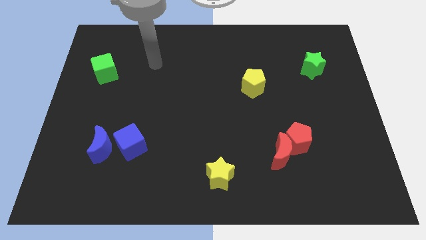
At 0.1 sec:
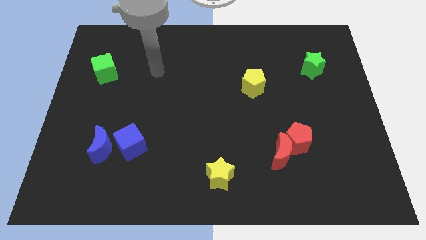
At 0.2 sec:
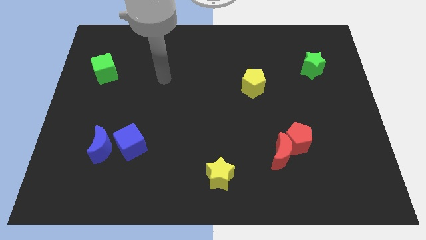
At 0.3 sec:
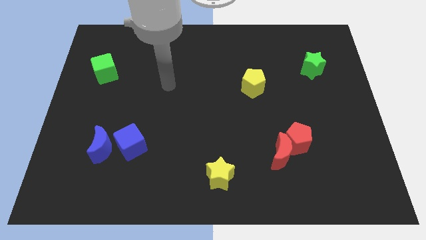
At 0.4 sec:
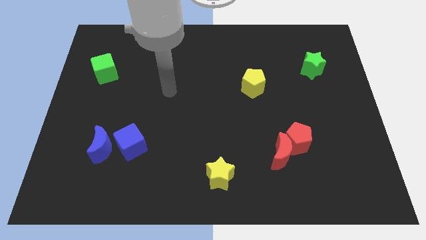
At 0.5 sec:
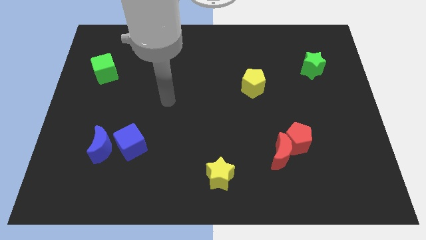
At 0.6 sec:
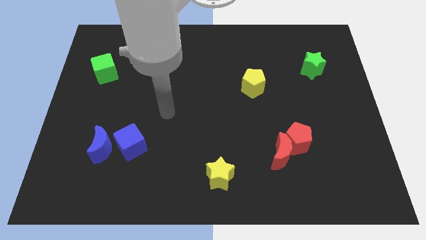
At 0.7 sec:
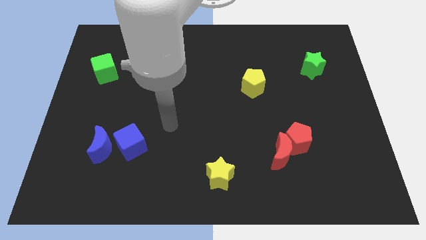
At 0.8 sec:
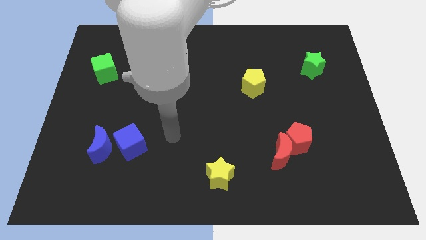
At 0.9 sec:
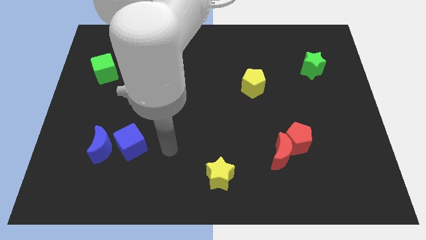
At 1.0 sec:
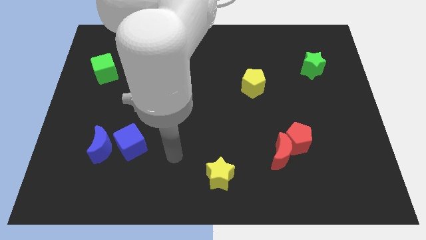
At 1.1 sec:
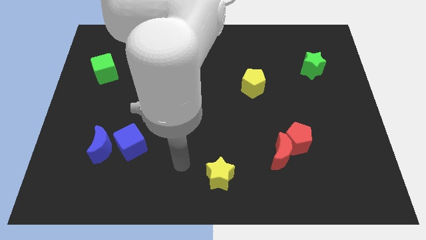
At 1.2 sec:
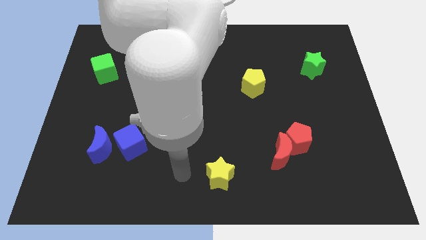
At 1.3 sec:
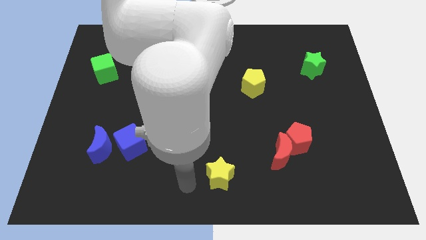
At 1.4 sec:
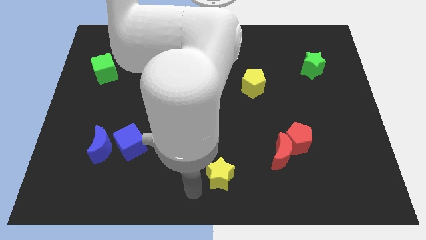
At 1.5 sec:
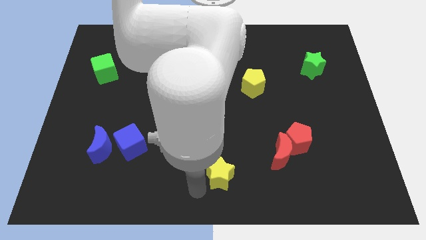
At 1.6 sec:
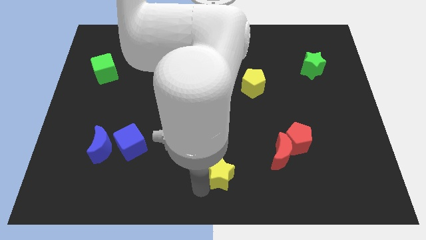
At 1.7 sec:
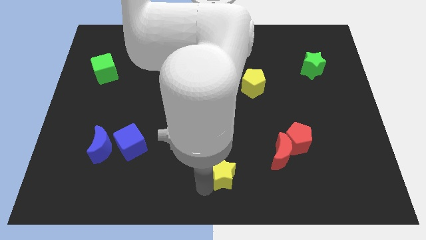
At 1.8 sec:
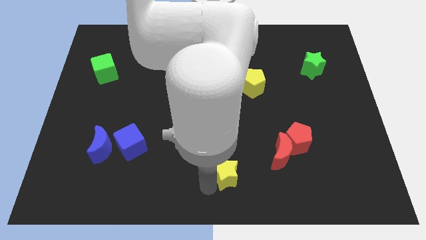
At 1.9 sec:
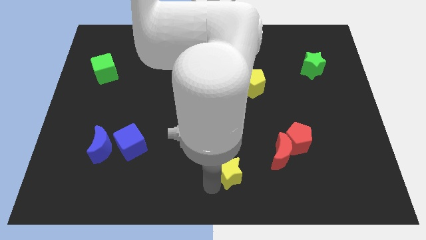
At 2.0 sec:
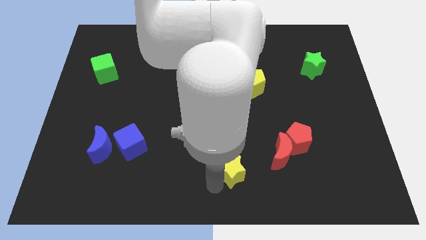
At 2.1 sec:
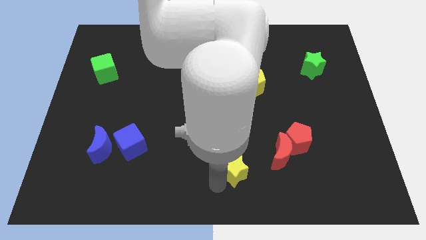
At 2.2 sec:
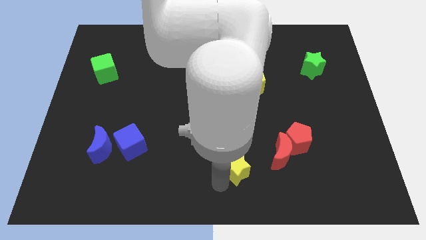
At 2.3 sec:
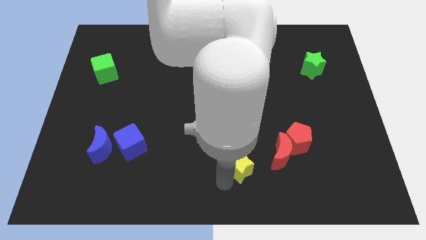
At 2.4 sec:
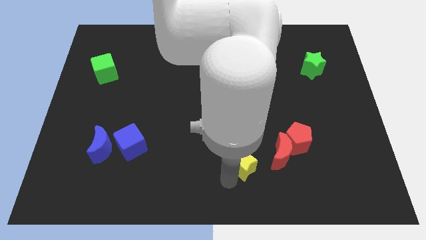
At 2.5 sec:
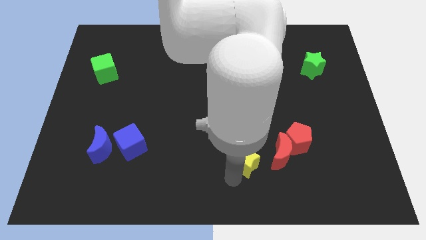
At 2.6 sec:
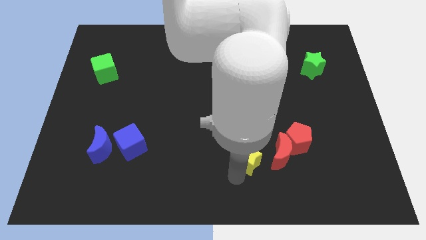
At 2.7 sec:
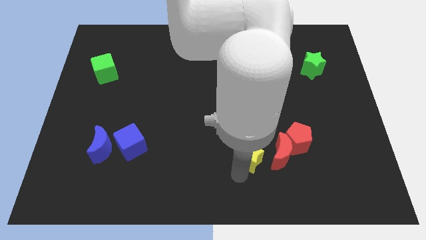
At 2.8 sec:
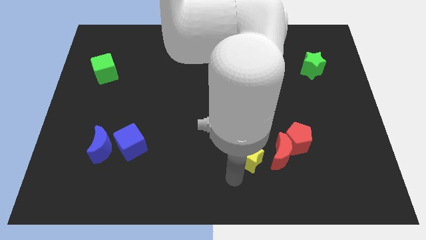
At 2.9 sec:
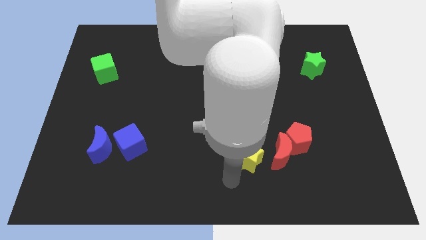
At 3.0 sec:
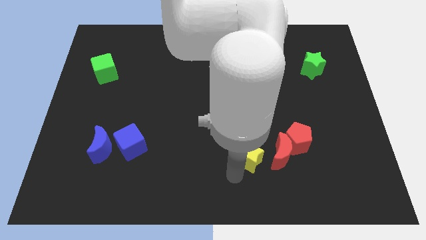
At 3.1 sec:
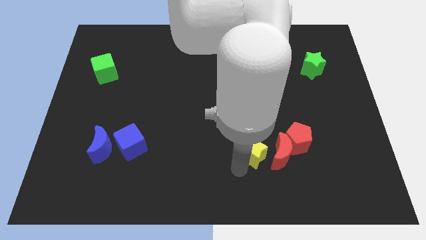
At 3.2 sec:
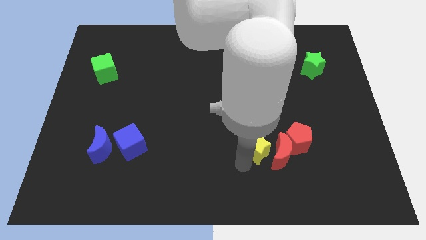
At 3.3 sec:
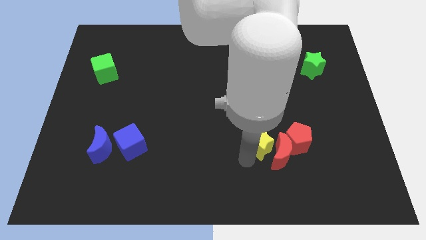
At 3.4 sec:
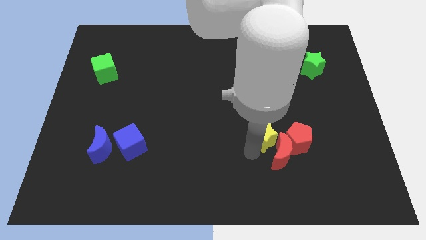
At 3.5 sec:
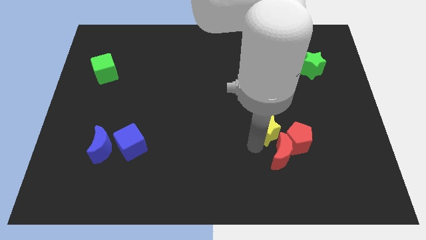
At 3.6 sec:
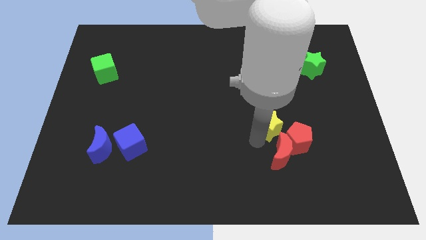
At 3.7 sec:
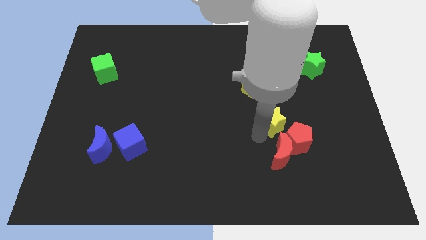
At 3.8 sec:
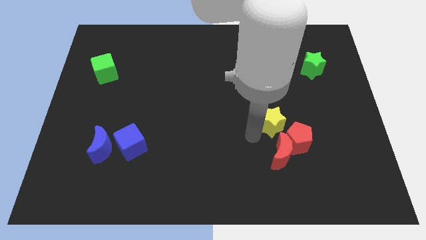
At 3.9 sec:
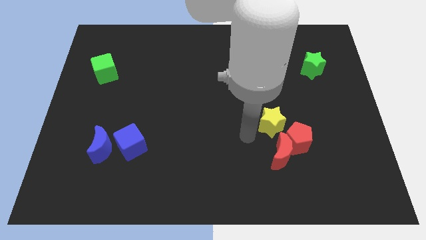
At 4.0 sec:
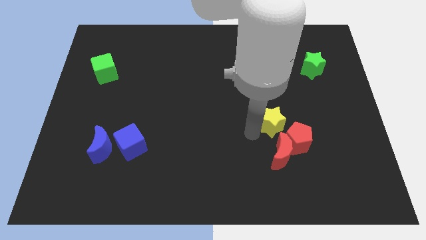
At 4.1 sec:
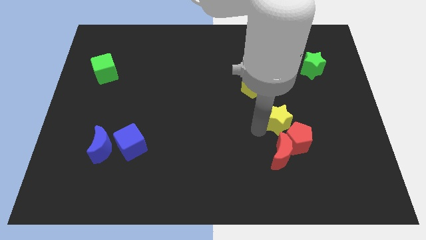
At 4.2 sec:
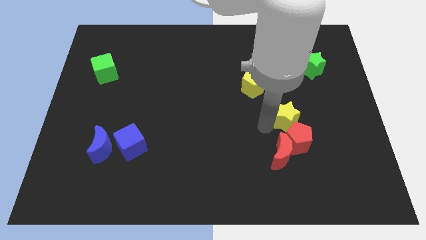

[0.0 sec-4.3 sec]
move the yellow star upwards and right

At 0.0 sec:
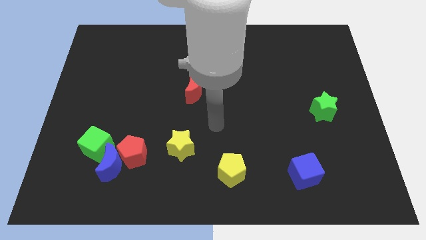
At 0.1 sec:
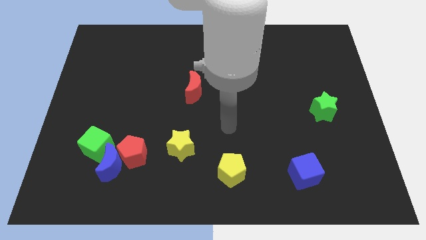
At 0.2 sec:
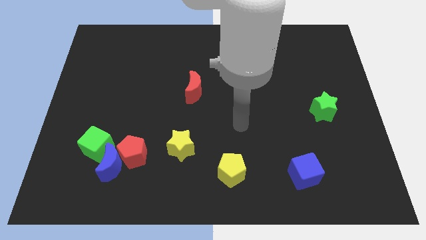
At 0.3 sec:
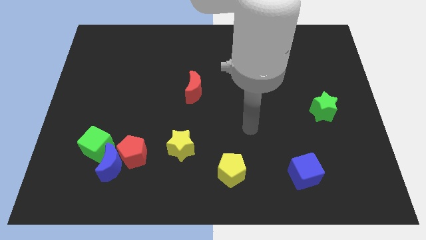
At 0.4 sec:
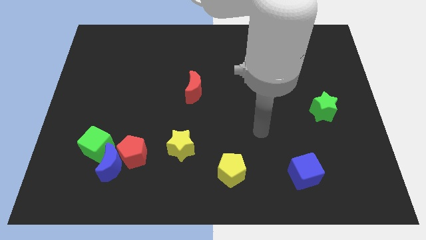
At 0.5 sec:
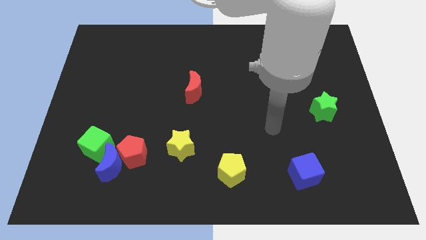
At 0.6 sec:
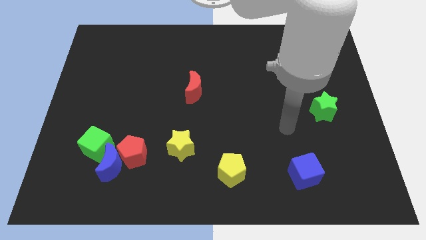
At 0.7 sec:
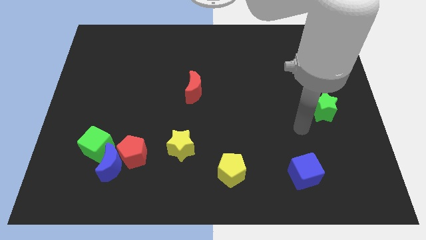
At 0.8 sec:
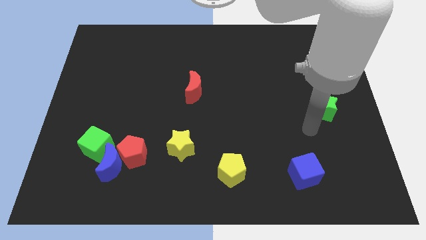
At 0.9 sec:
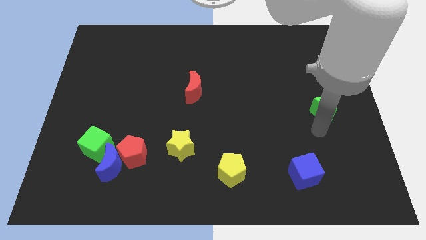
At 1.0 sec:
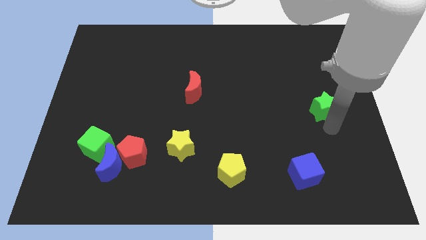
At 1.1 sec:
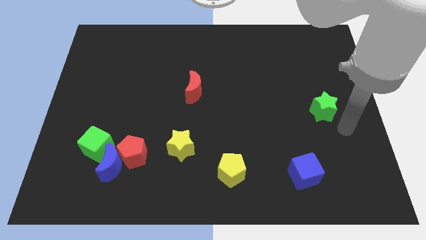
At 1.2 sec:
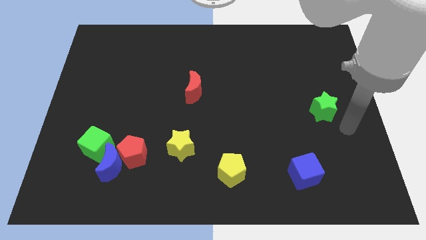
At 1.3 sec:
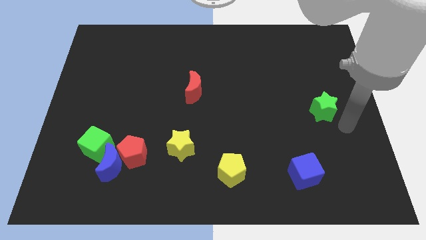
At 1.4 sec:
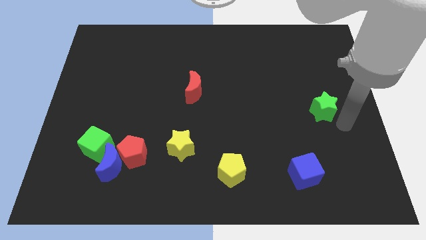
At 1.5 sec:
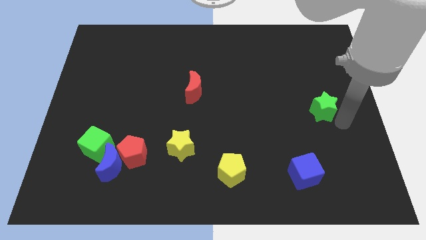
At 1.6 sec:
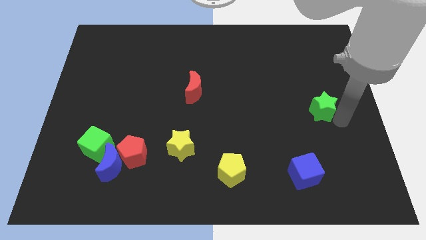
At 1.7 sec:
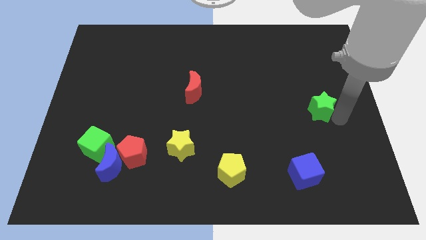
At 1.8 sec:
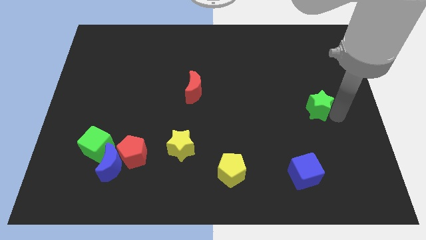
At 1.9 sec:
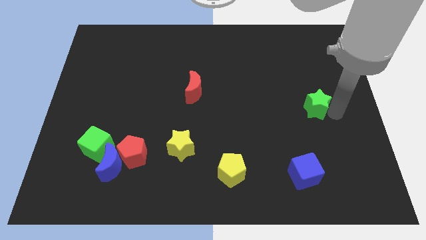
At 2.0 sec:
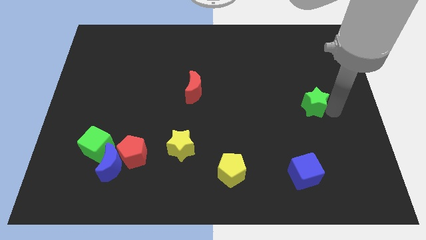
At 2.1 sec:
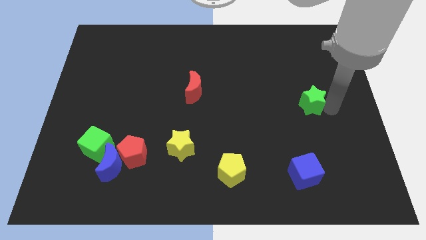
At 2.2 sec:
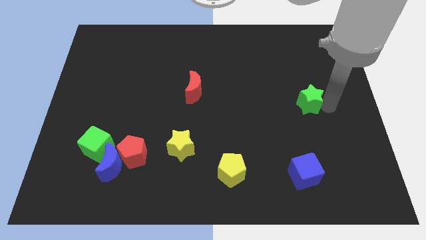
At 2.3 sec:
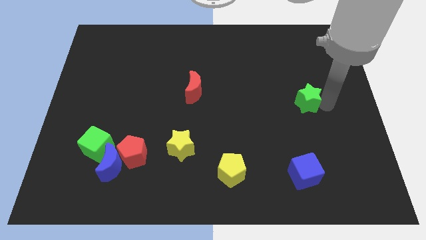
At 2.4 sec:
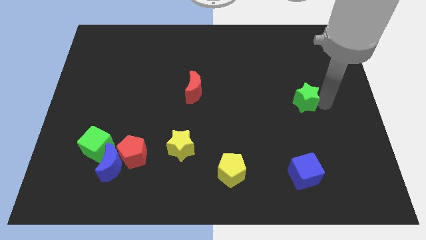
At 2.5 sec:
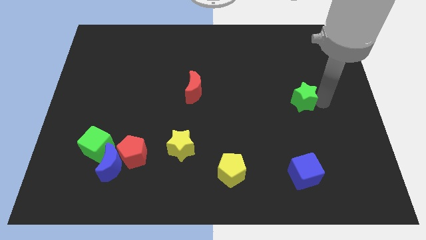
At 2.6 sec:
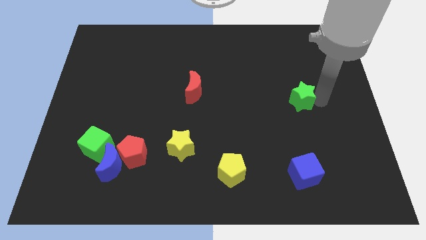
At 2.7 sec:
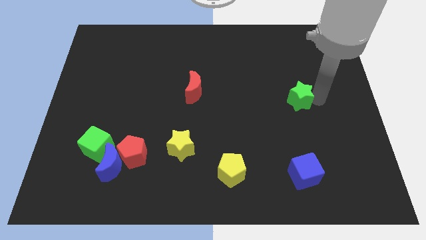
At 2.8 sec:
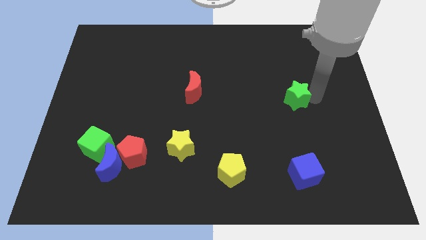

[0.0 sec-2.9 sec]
move the green star up and left somewhat

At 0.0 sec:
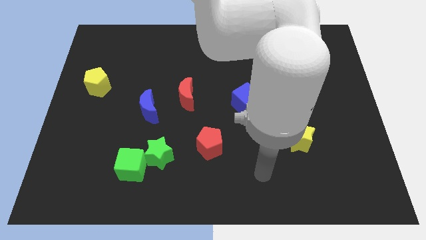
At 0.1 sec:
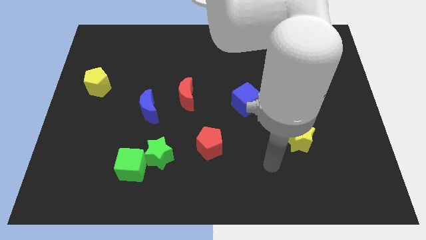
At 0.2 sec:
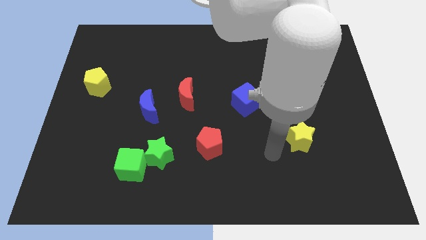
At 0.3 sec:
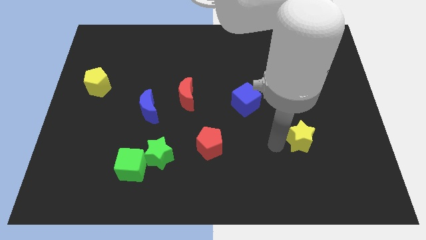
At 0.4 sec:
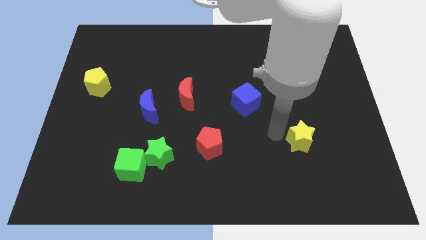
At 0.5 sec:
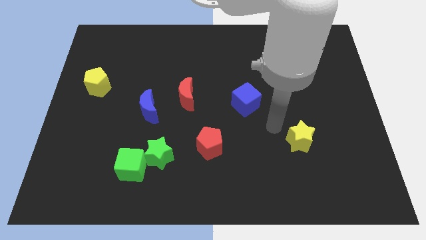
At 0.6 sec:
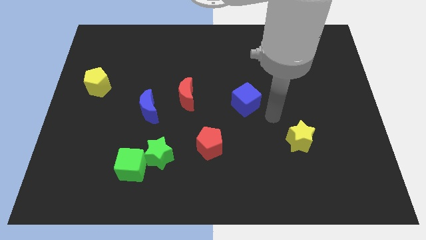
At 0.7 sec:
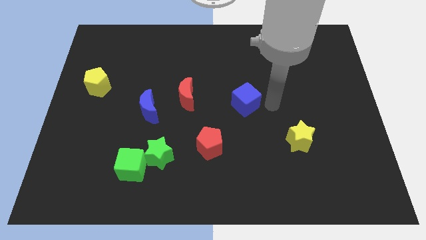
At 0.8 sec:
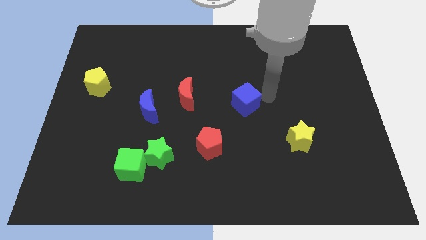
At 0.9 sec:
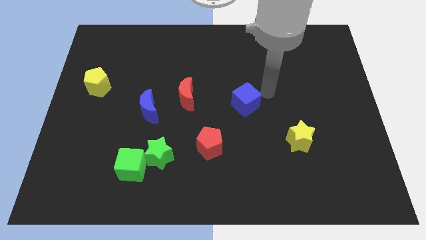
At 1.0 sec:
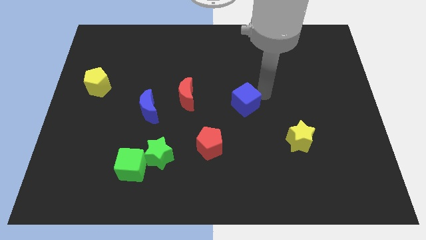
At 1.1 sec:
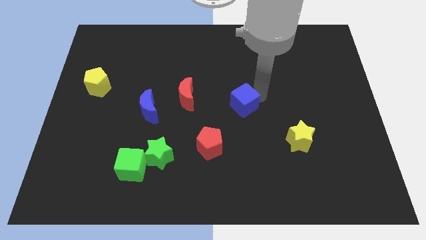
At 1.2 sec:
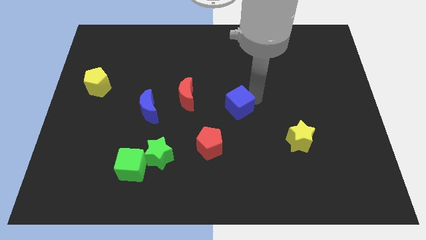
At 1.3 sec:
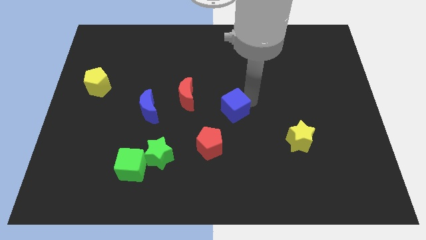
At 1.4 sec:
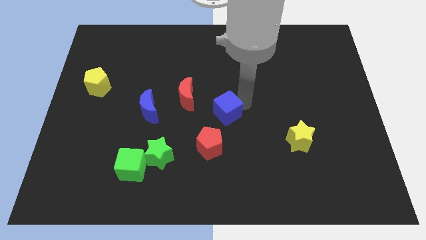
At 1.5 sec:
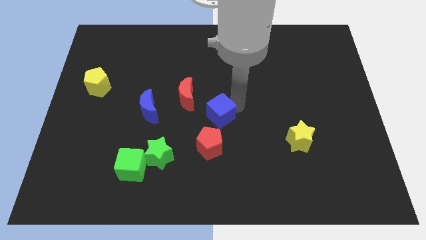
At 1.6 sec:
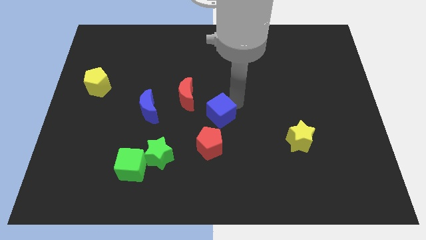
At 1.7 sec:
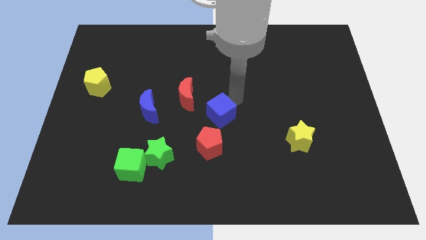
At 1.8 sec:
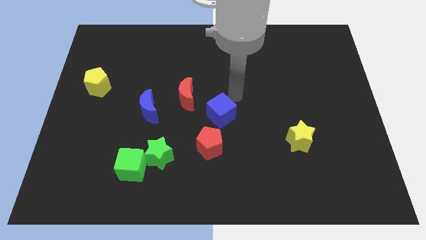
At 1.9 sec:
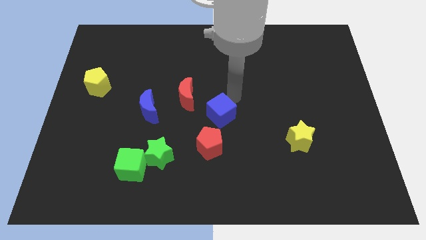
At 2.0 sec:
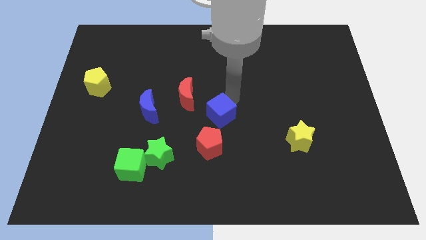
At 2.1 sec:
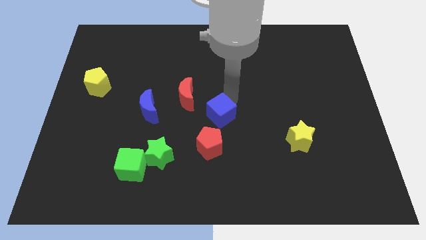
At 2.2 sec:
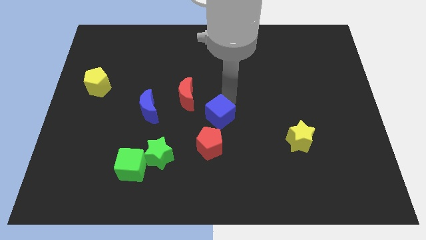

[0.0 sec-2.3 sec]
slightly slide the blue cube diagonally down and left
